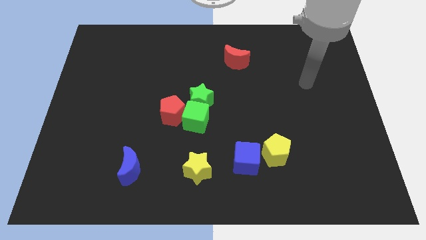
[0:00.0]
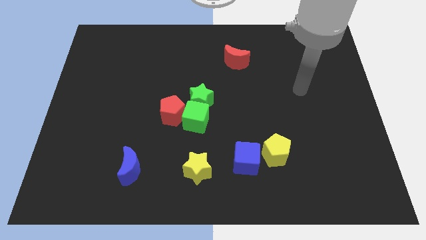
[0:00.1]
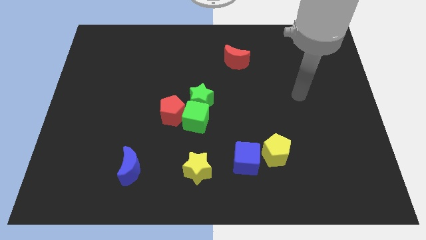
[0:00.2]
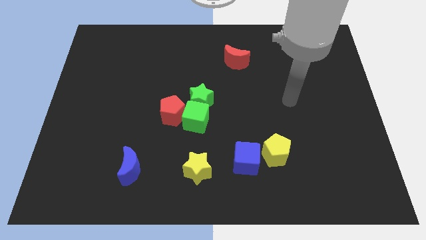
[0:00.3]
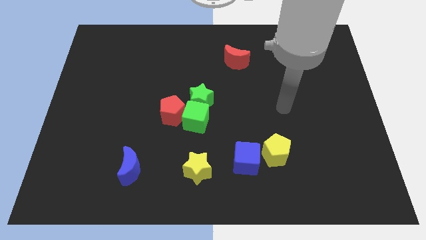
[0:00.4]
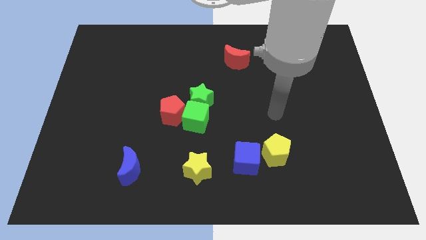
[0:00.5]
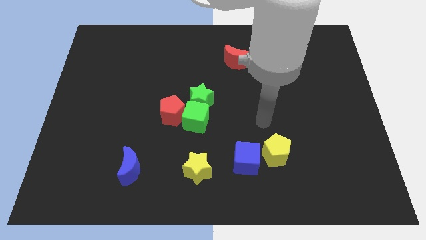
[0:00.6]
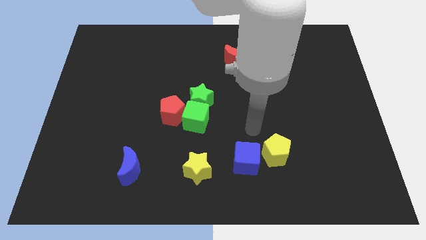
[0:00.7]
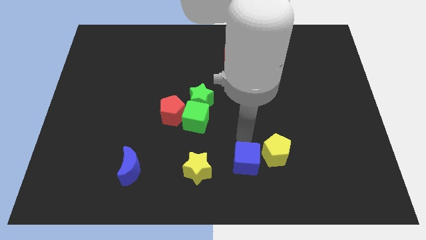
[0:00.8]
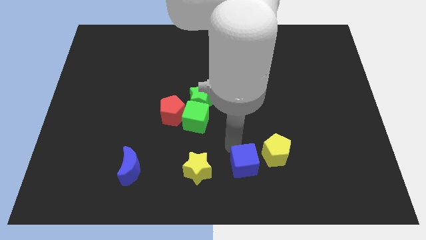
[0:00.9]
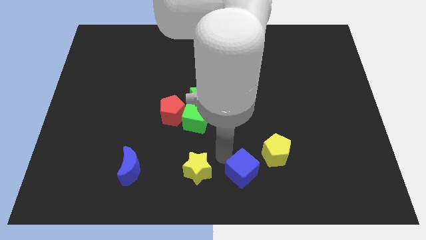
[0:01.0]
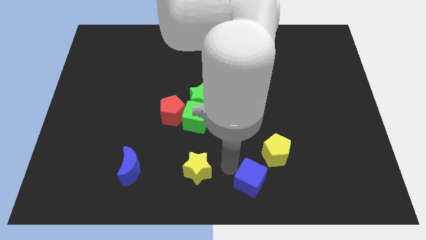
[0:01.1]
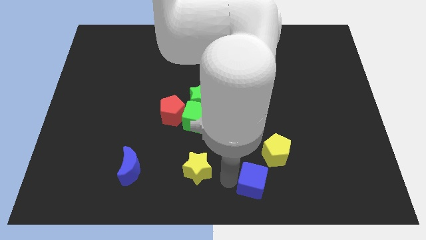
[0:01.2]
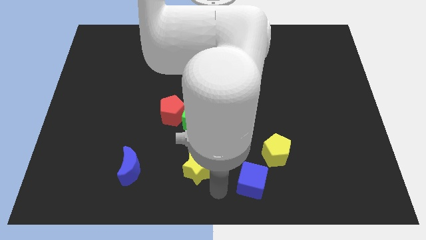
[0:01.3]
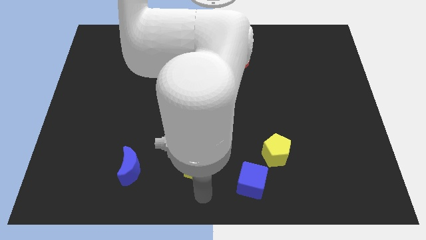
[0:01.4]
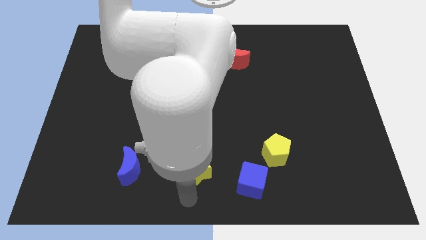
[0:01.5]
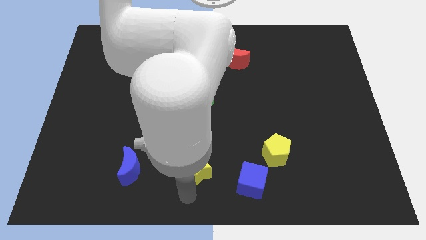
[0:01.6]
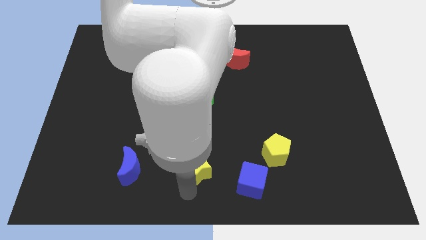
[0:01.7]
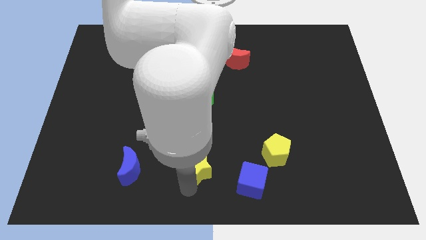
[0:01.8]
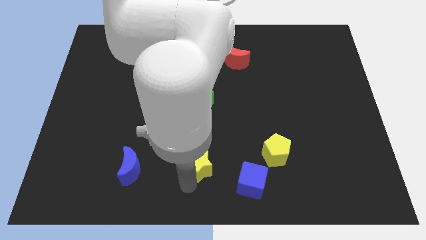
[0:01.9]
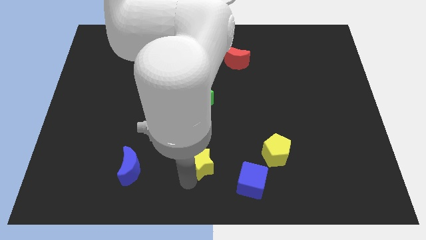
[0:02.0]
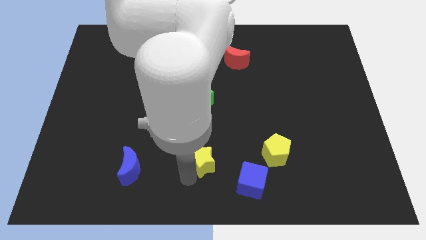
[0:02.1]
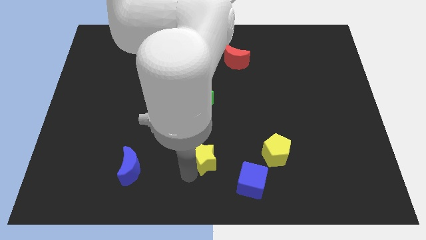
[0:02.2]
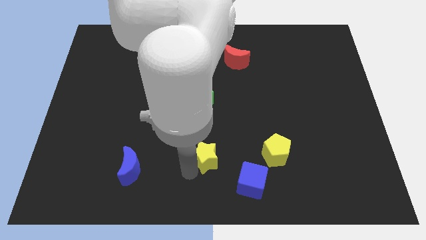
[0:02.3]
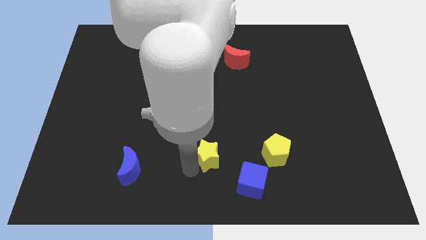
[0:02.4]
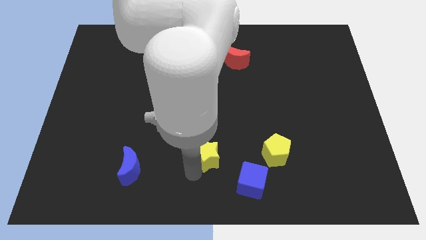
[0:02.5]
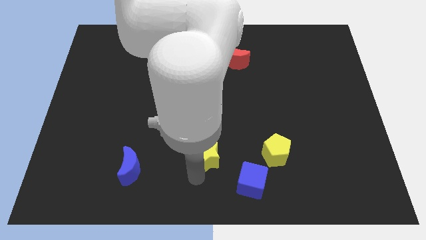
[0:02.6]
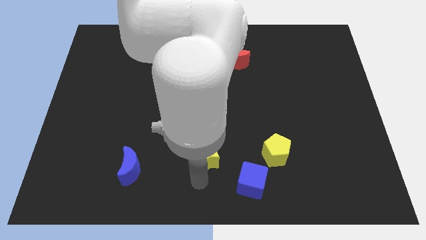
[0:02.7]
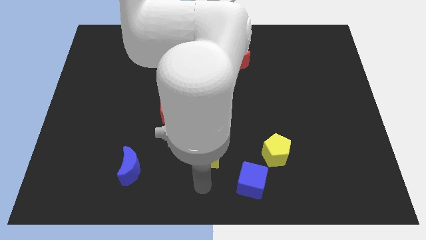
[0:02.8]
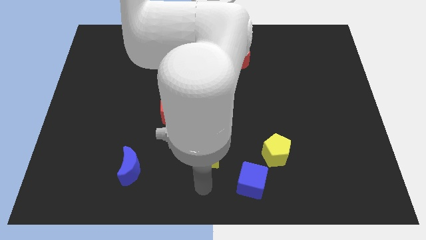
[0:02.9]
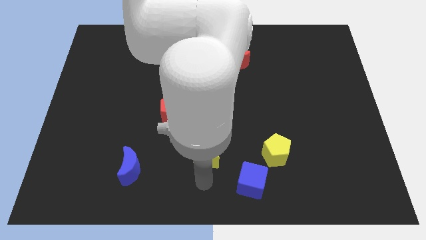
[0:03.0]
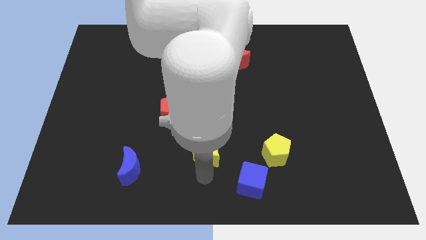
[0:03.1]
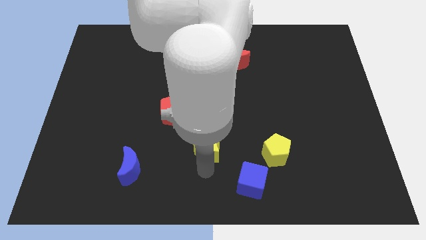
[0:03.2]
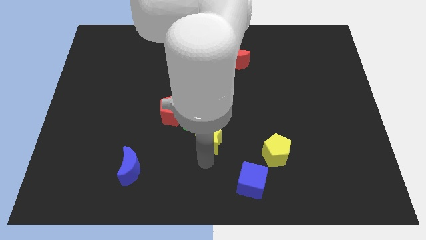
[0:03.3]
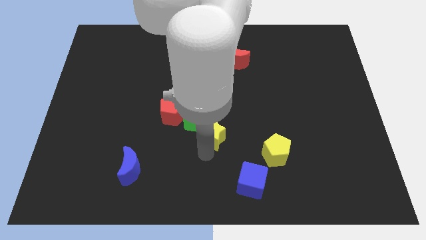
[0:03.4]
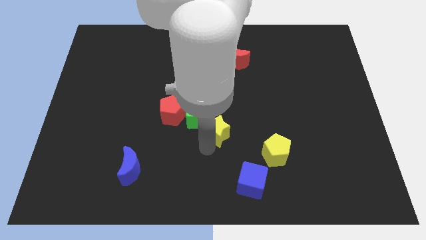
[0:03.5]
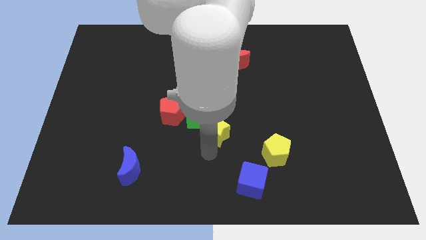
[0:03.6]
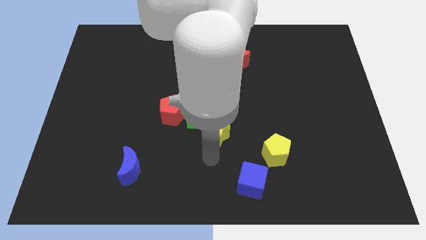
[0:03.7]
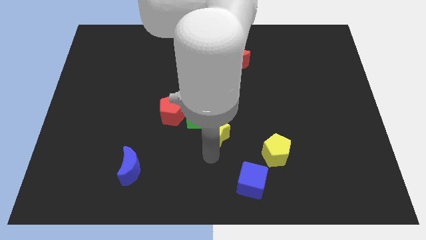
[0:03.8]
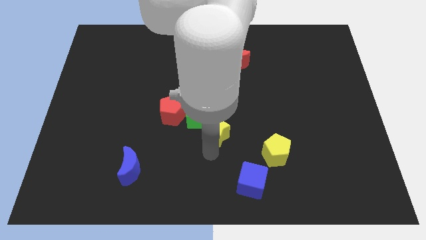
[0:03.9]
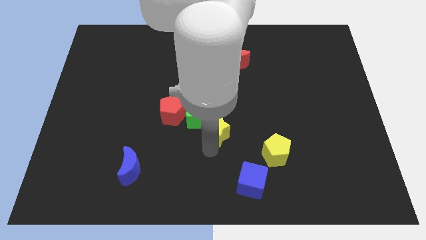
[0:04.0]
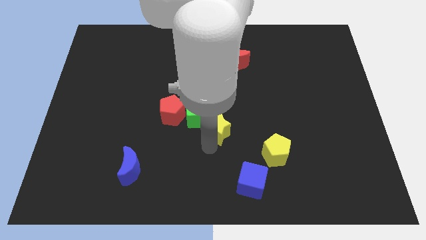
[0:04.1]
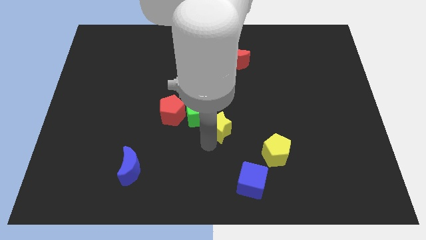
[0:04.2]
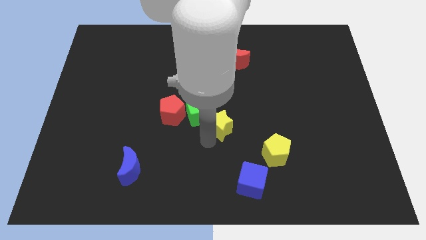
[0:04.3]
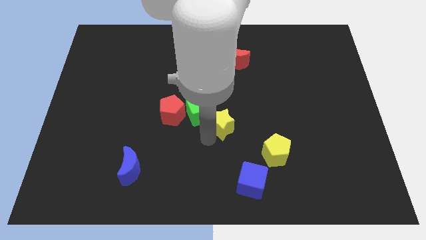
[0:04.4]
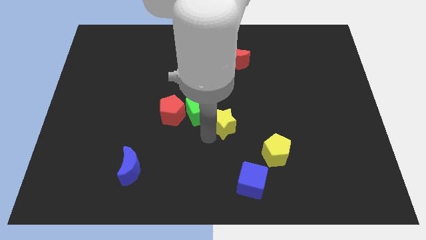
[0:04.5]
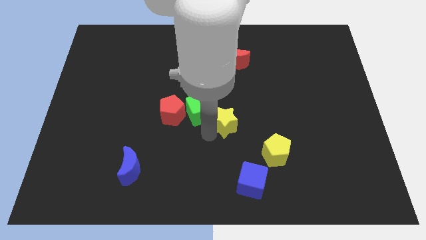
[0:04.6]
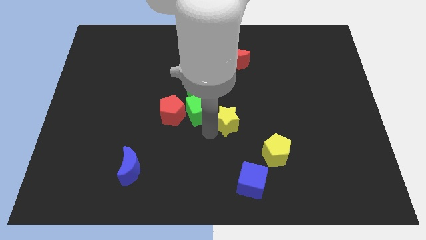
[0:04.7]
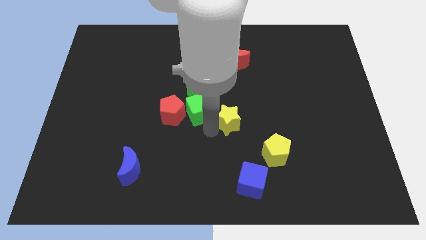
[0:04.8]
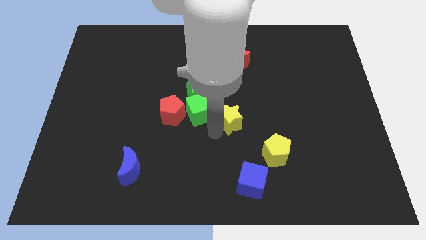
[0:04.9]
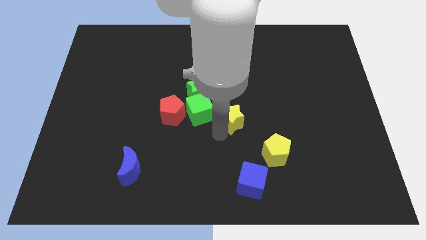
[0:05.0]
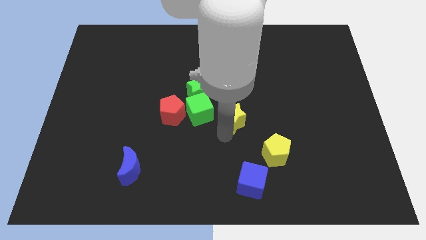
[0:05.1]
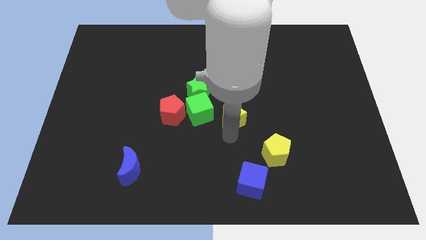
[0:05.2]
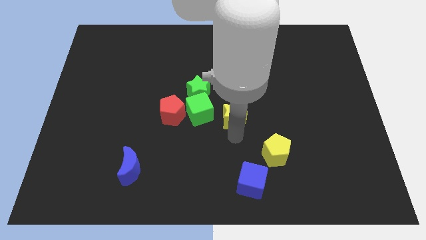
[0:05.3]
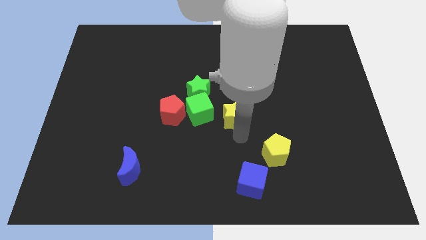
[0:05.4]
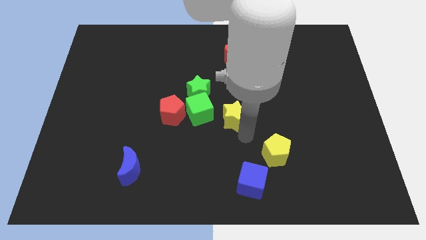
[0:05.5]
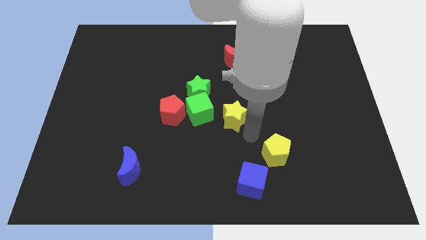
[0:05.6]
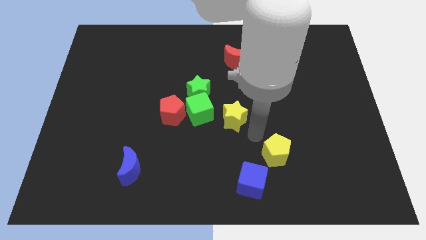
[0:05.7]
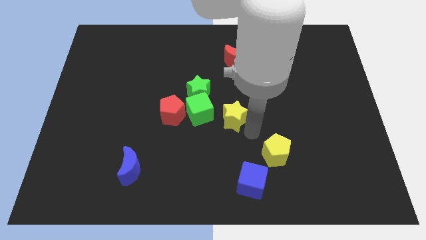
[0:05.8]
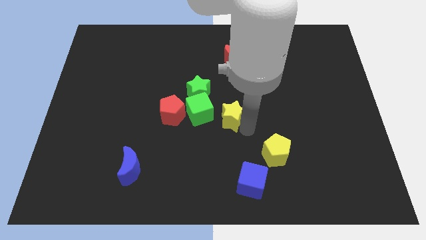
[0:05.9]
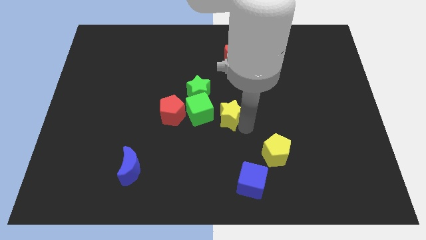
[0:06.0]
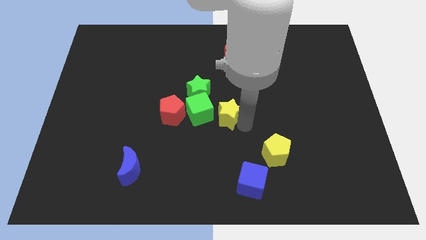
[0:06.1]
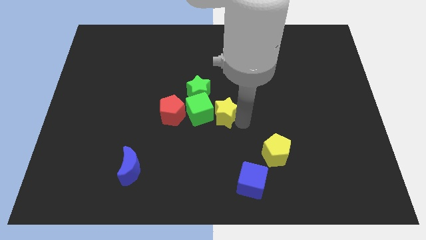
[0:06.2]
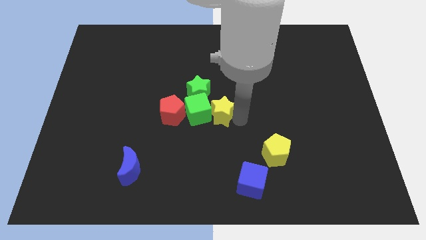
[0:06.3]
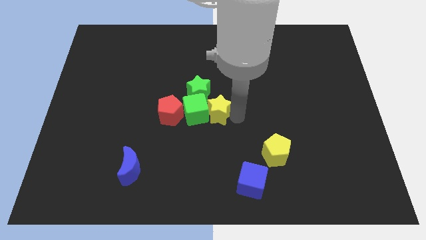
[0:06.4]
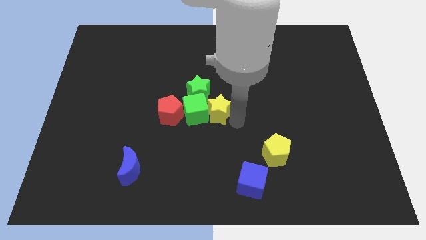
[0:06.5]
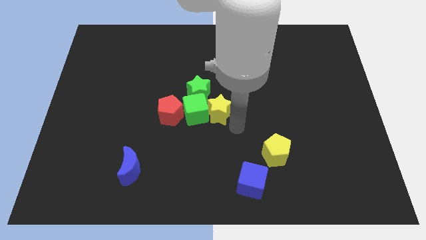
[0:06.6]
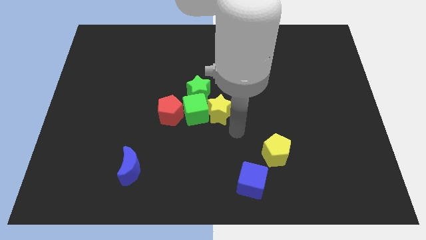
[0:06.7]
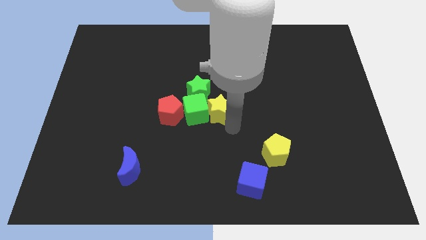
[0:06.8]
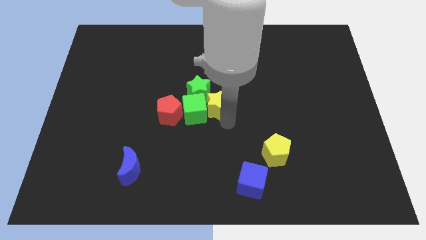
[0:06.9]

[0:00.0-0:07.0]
push the yellow star towards the green star

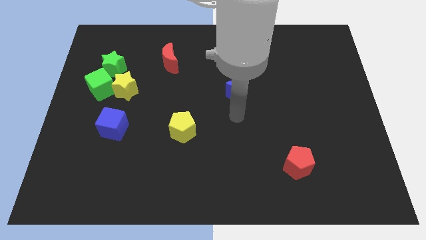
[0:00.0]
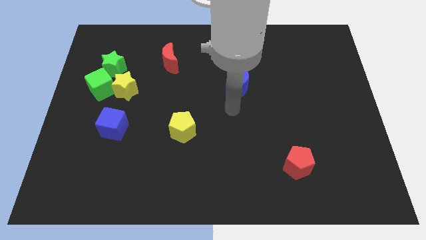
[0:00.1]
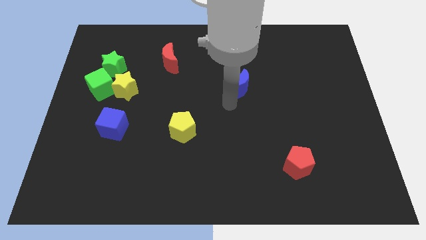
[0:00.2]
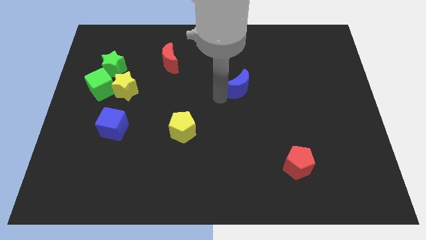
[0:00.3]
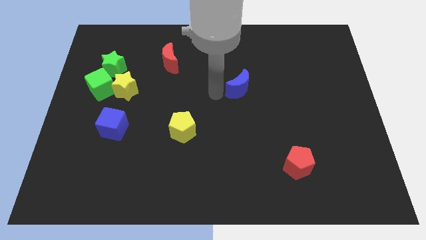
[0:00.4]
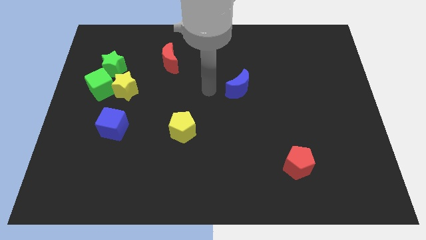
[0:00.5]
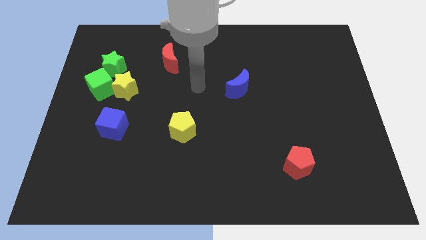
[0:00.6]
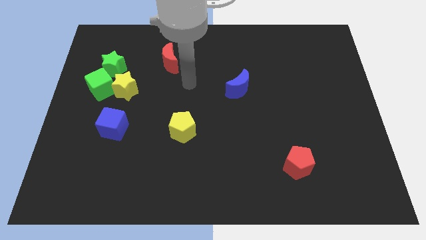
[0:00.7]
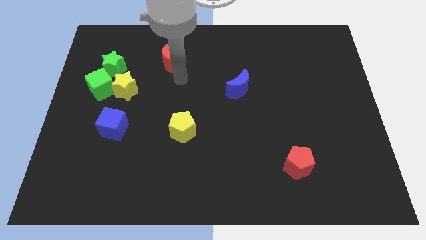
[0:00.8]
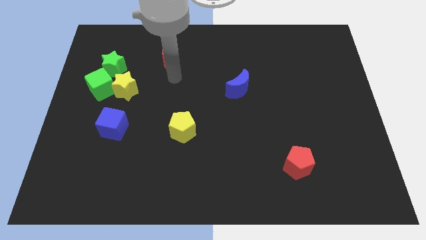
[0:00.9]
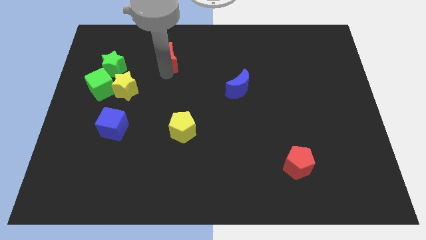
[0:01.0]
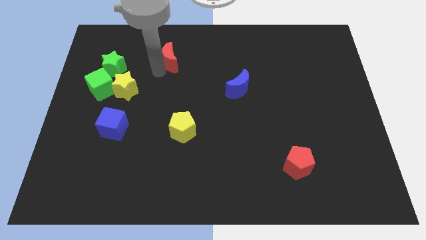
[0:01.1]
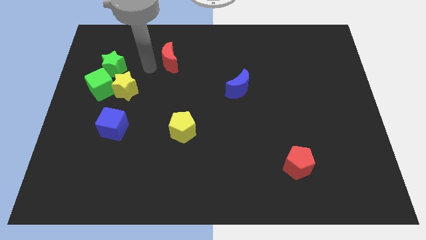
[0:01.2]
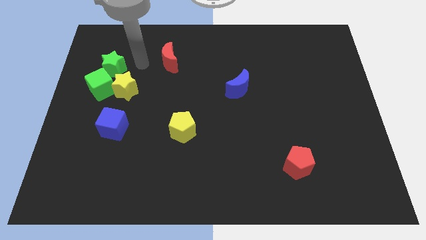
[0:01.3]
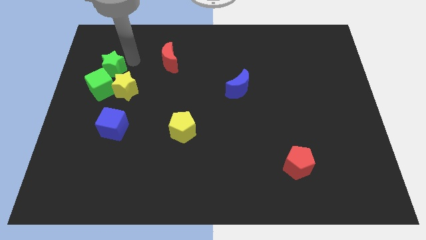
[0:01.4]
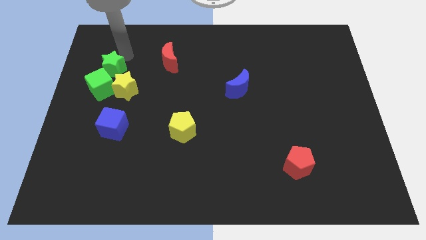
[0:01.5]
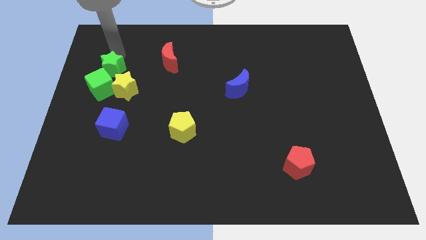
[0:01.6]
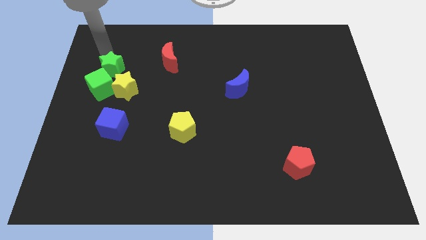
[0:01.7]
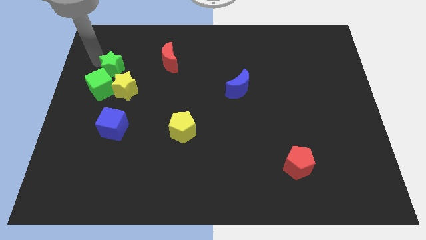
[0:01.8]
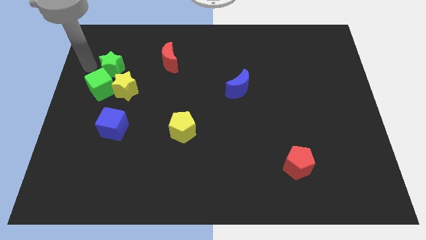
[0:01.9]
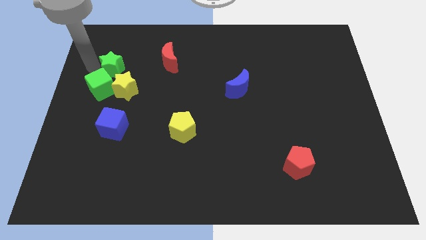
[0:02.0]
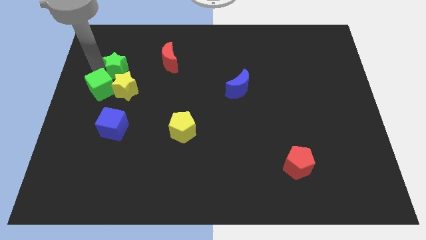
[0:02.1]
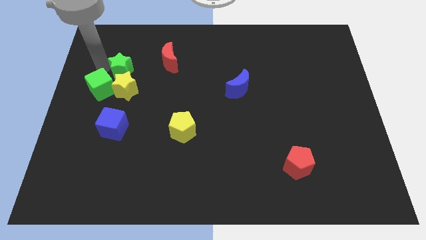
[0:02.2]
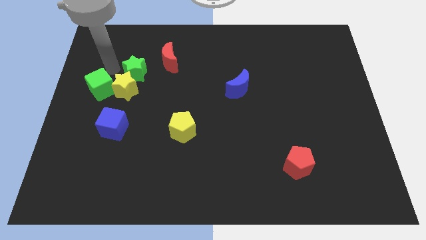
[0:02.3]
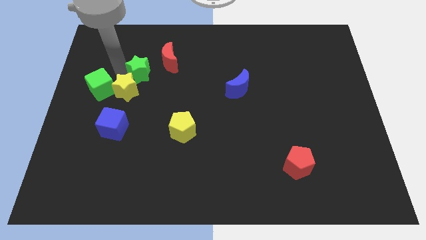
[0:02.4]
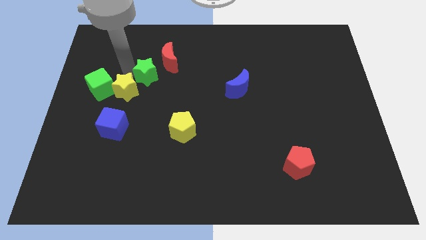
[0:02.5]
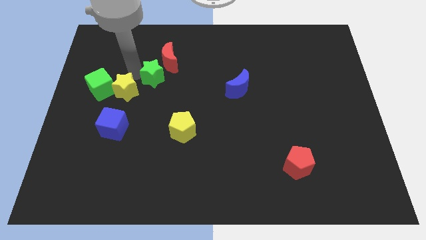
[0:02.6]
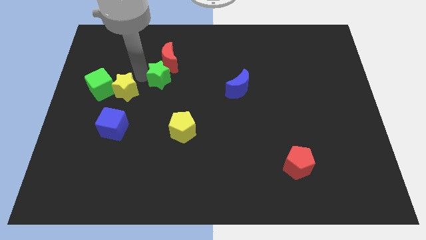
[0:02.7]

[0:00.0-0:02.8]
slide the green star towards the red moon
